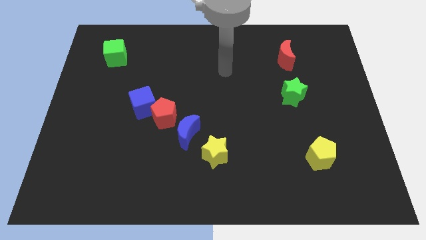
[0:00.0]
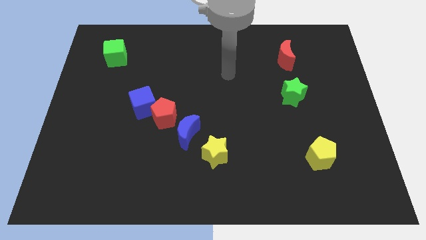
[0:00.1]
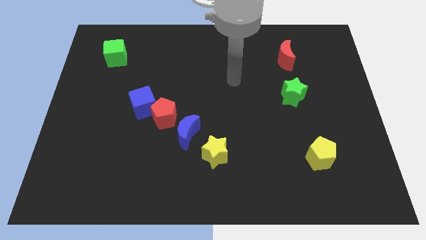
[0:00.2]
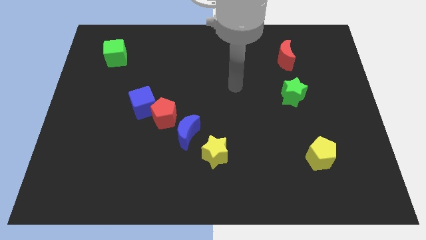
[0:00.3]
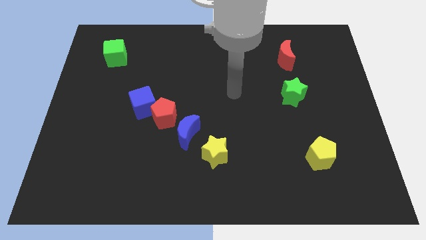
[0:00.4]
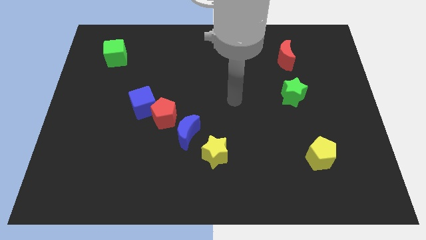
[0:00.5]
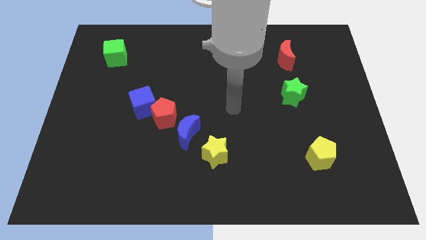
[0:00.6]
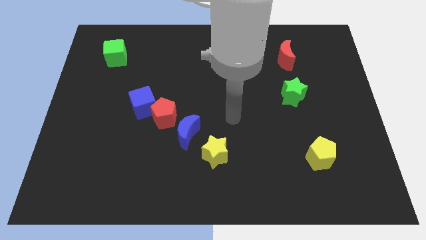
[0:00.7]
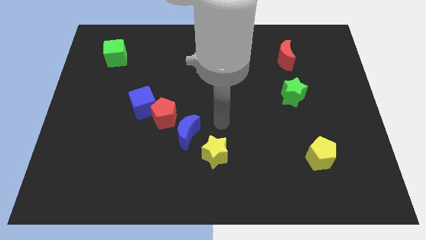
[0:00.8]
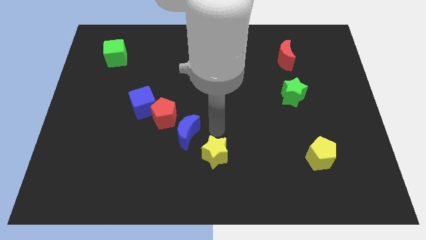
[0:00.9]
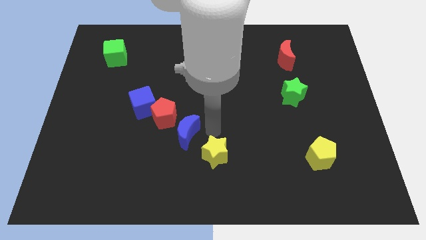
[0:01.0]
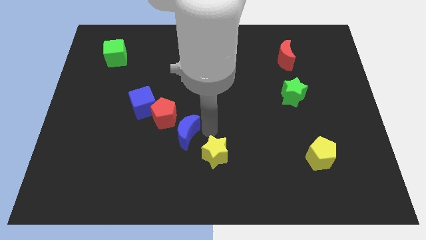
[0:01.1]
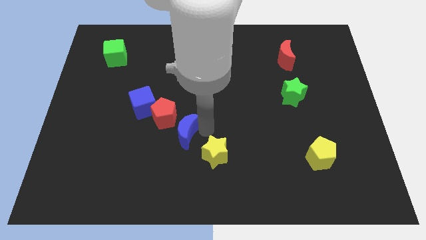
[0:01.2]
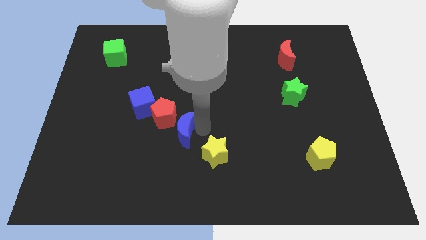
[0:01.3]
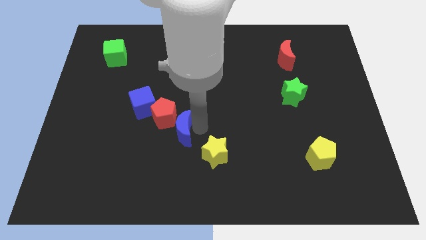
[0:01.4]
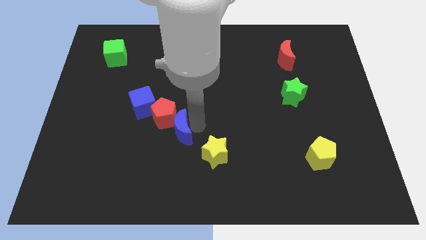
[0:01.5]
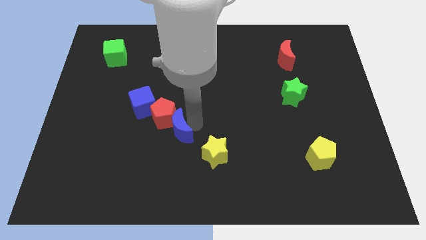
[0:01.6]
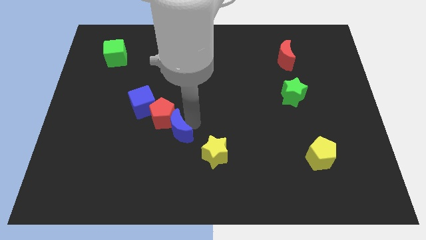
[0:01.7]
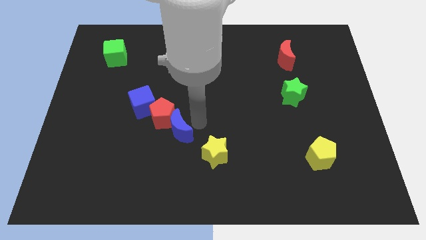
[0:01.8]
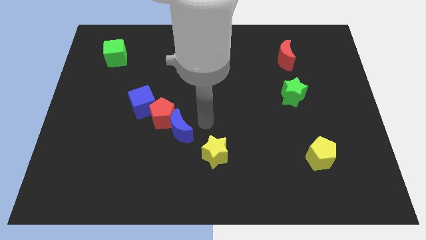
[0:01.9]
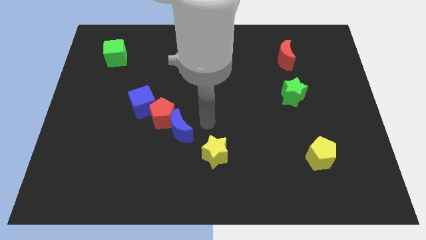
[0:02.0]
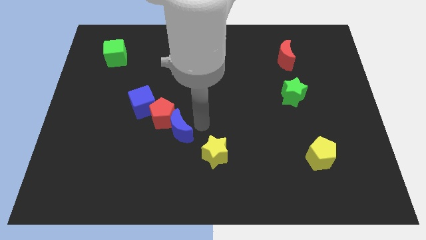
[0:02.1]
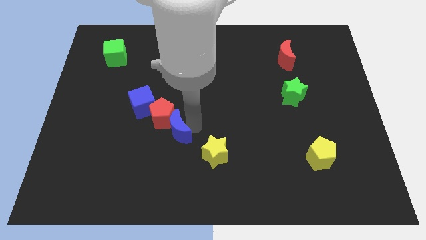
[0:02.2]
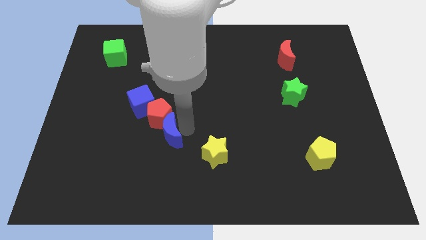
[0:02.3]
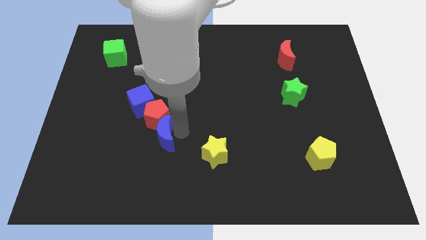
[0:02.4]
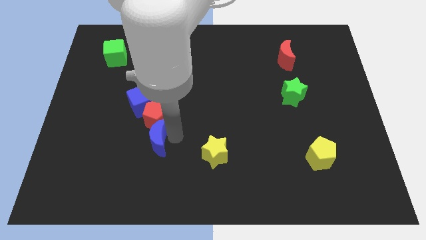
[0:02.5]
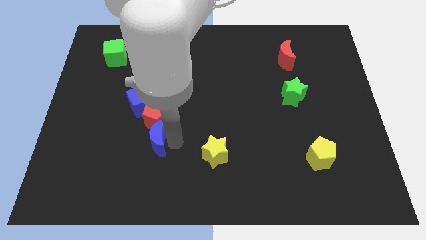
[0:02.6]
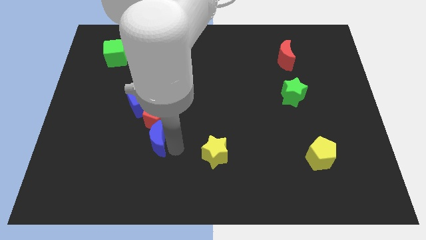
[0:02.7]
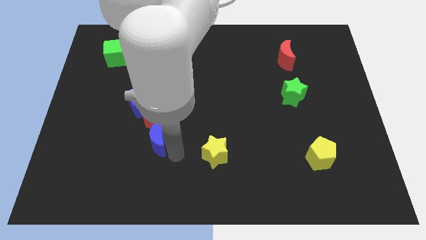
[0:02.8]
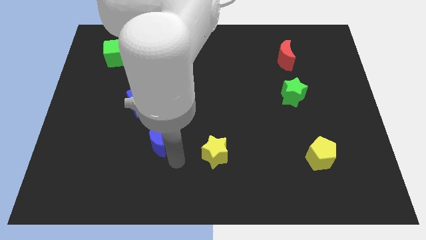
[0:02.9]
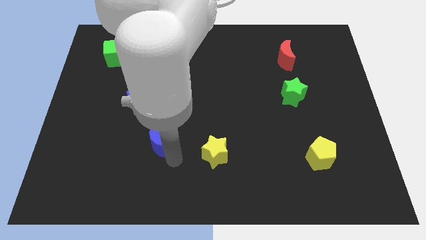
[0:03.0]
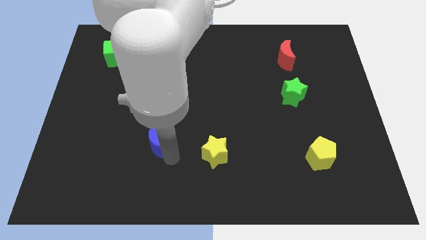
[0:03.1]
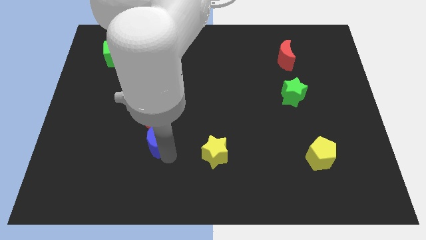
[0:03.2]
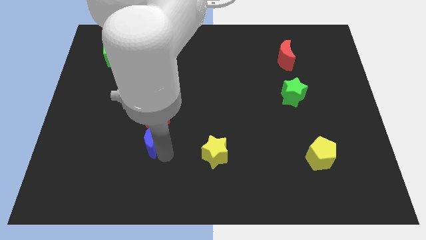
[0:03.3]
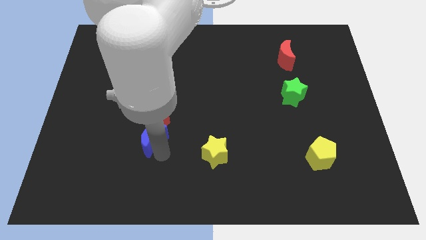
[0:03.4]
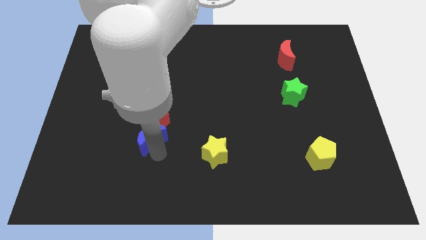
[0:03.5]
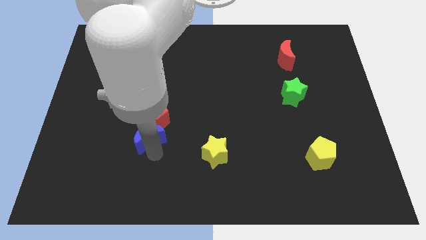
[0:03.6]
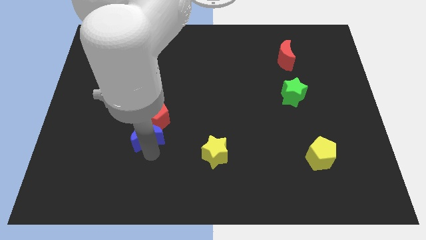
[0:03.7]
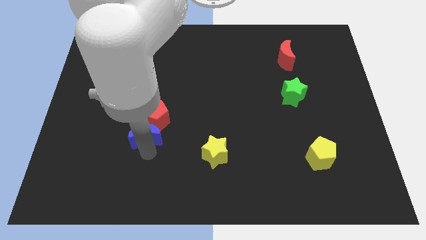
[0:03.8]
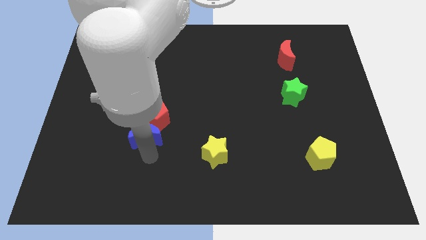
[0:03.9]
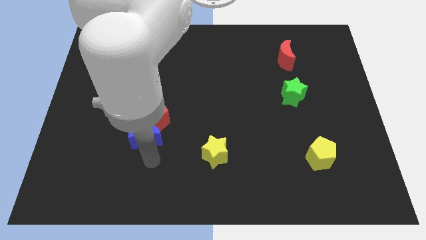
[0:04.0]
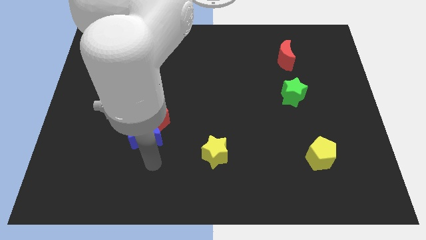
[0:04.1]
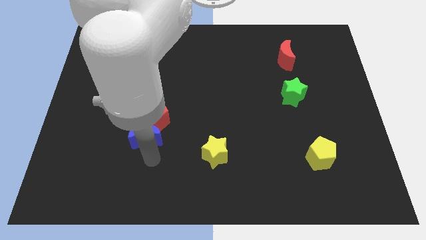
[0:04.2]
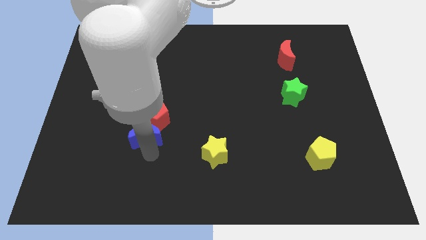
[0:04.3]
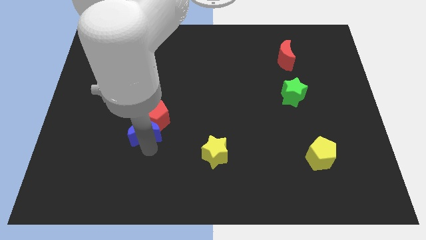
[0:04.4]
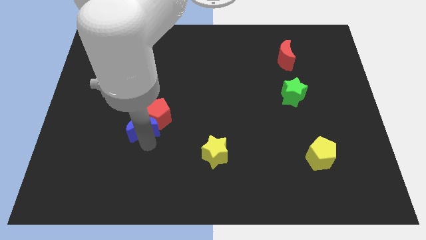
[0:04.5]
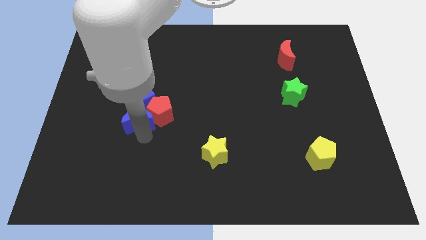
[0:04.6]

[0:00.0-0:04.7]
push the blue moon close to the blue cube

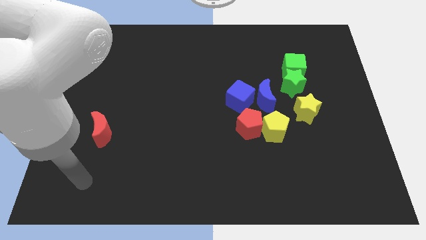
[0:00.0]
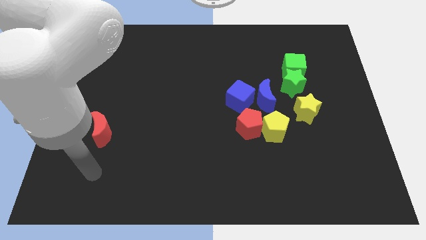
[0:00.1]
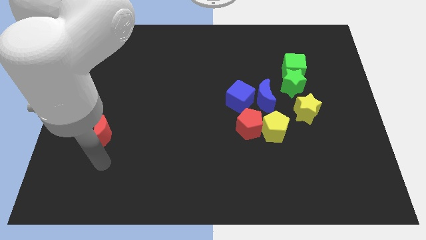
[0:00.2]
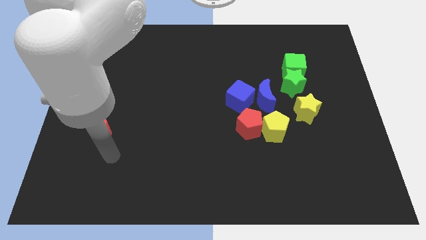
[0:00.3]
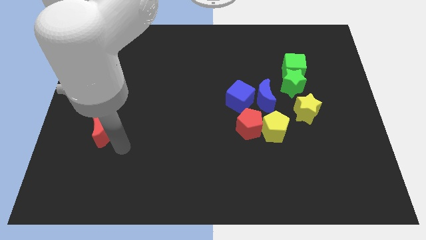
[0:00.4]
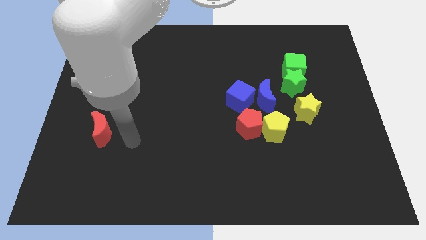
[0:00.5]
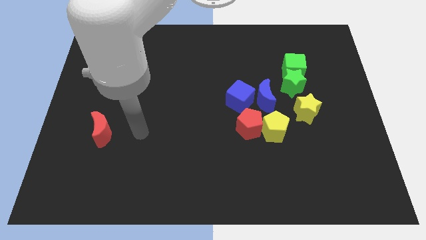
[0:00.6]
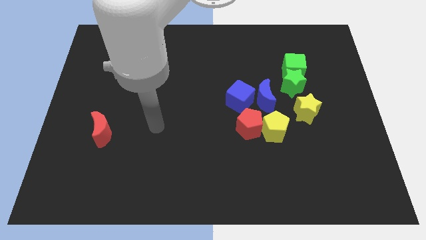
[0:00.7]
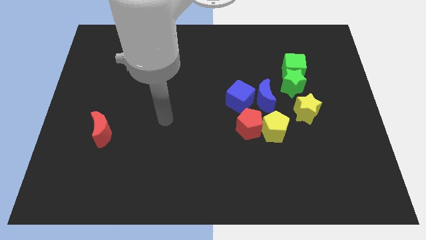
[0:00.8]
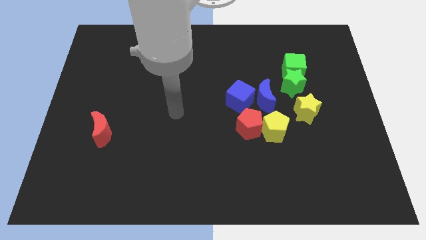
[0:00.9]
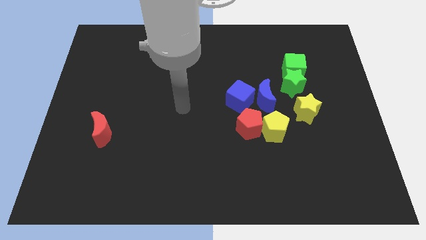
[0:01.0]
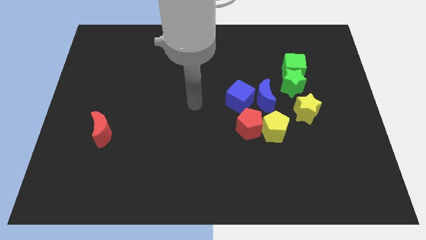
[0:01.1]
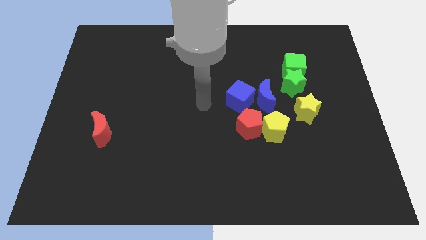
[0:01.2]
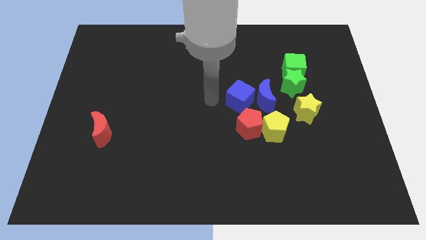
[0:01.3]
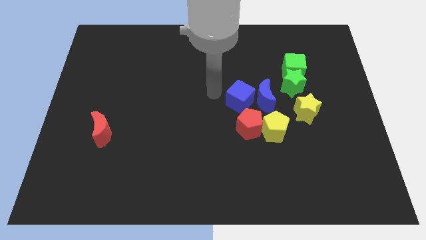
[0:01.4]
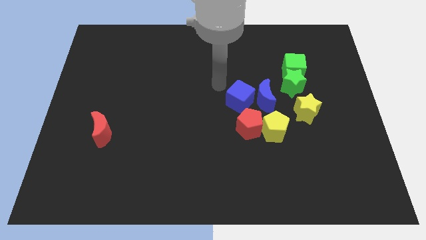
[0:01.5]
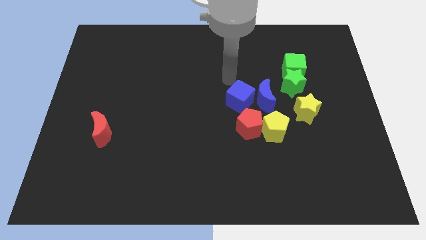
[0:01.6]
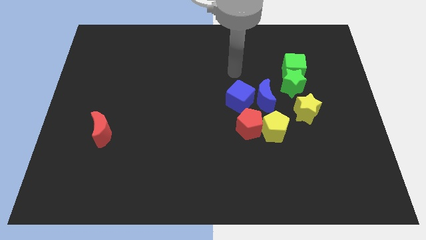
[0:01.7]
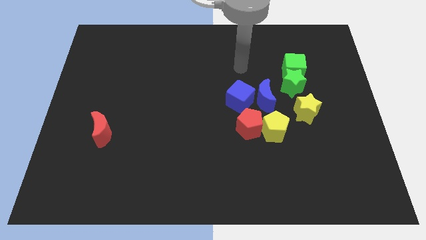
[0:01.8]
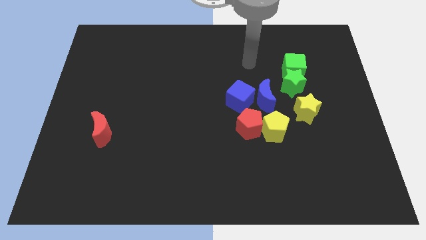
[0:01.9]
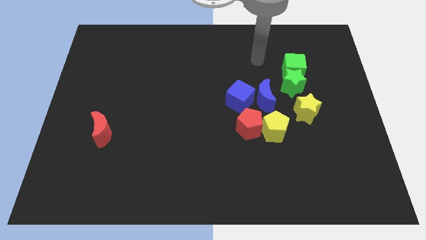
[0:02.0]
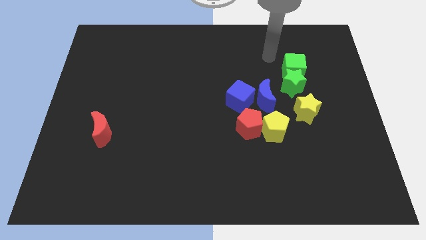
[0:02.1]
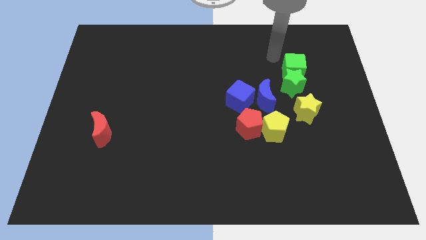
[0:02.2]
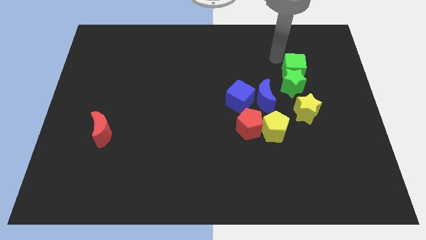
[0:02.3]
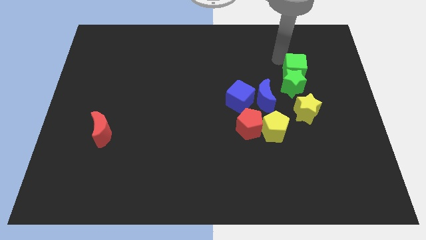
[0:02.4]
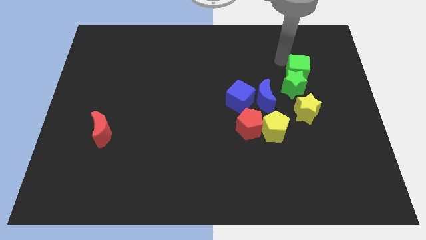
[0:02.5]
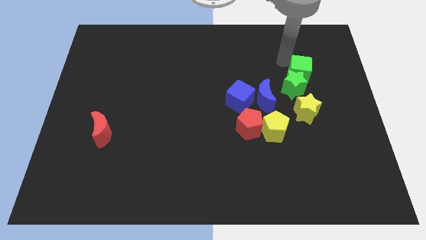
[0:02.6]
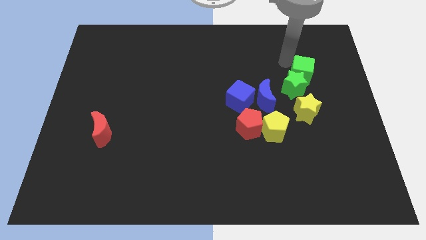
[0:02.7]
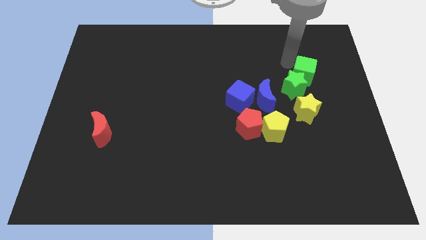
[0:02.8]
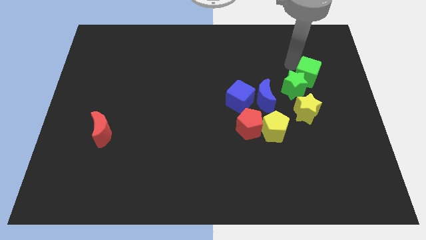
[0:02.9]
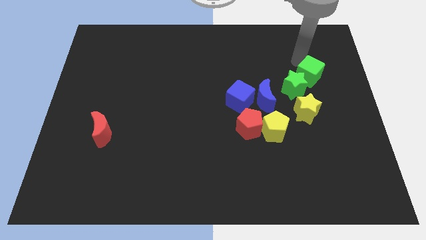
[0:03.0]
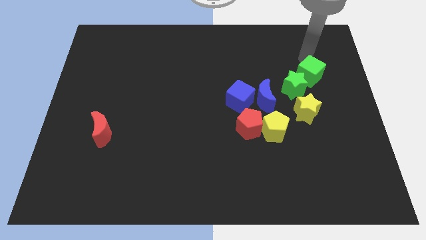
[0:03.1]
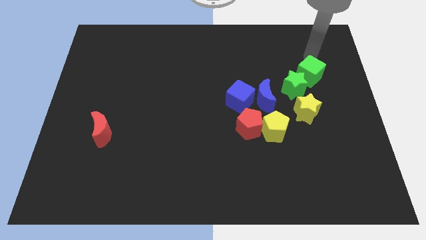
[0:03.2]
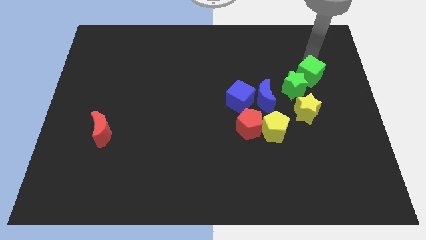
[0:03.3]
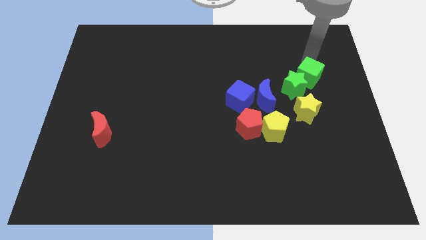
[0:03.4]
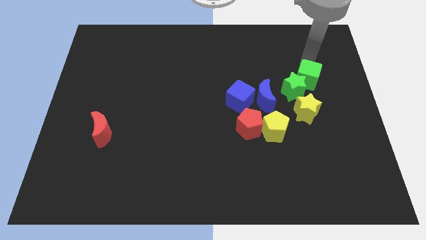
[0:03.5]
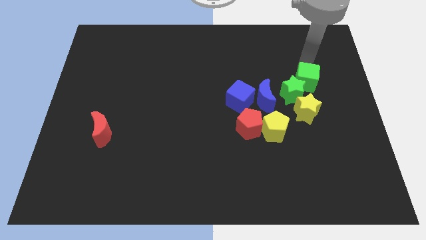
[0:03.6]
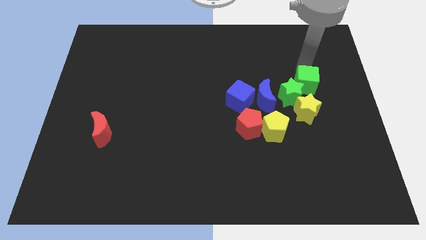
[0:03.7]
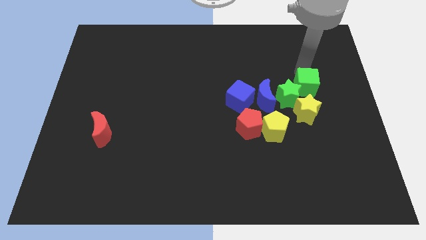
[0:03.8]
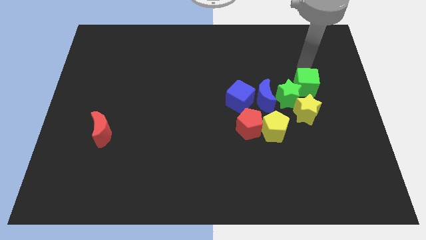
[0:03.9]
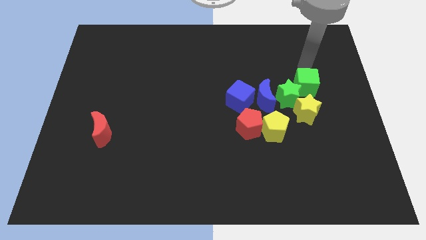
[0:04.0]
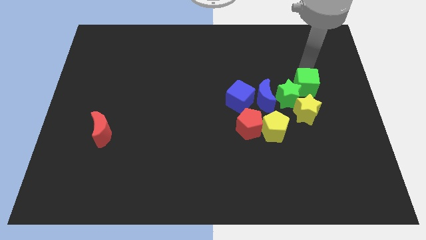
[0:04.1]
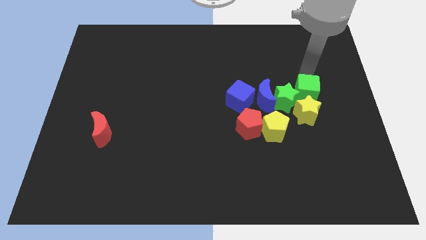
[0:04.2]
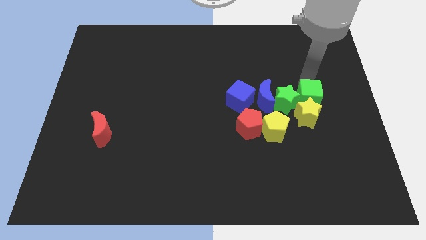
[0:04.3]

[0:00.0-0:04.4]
slide the green cube to the yellow star
